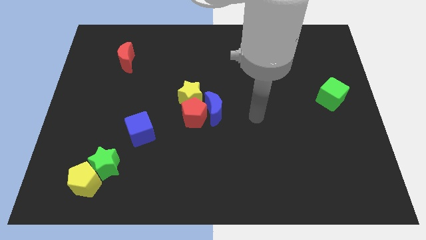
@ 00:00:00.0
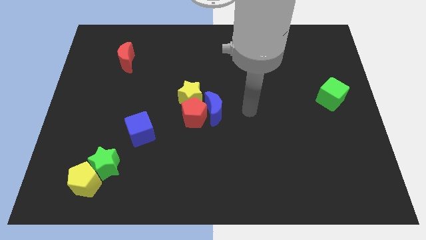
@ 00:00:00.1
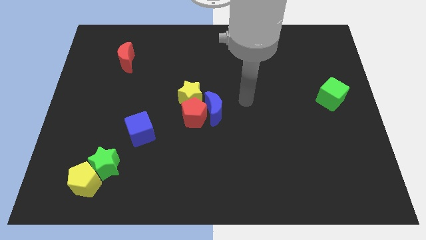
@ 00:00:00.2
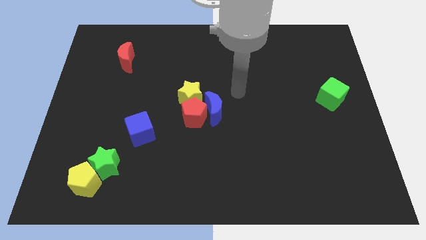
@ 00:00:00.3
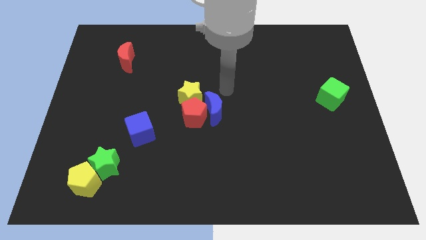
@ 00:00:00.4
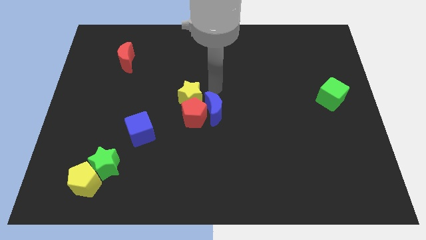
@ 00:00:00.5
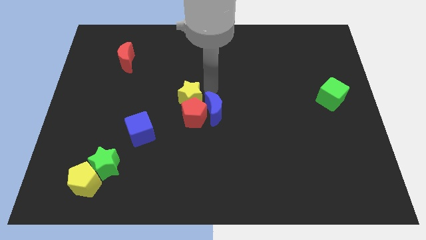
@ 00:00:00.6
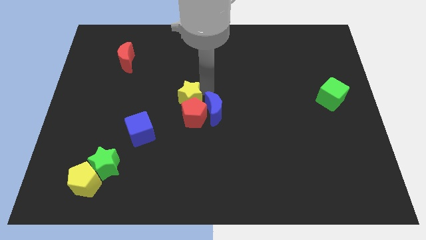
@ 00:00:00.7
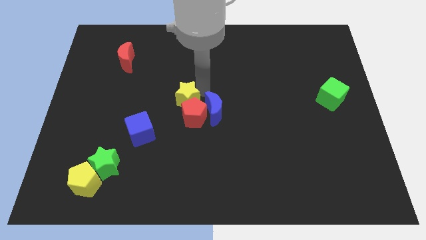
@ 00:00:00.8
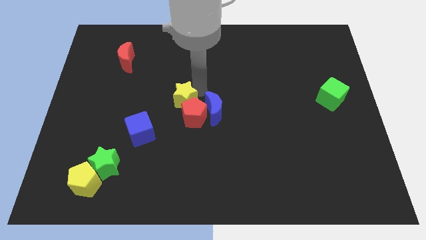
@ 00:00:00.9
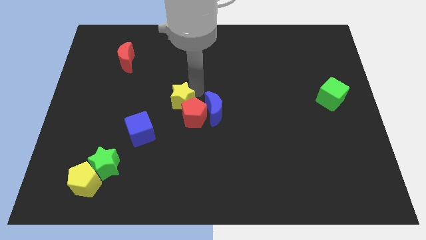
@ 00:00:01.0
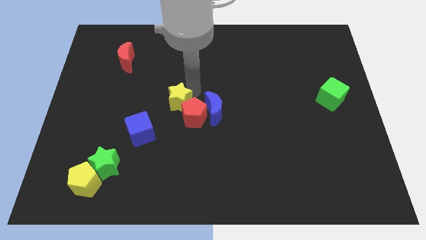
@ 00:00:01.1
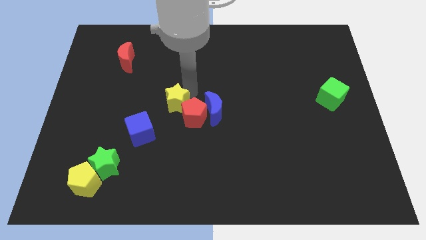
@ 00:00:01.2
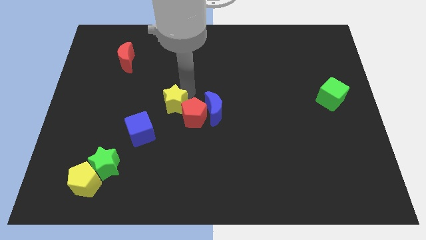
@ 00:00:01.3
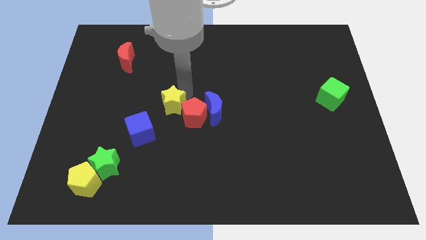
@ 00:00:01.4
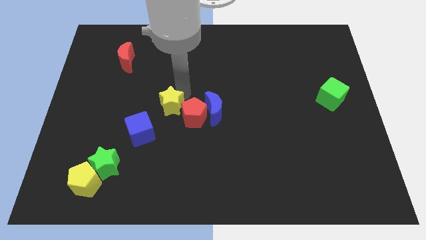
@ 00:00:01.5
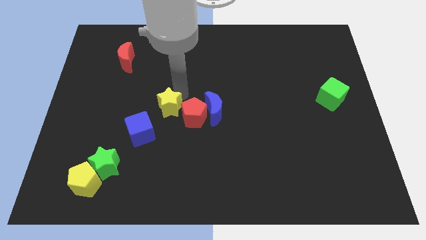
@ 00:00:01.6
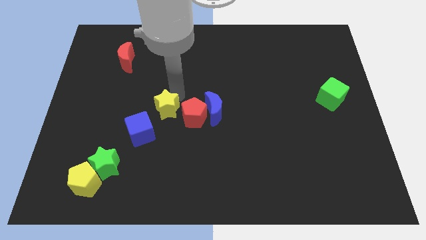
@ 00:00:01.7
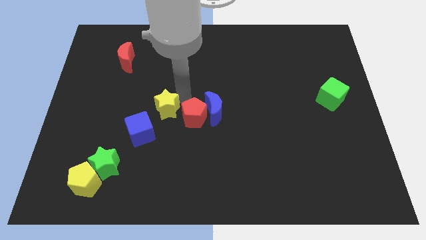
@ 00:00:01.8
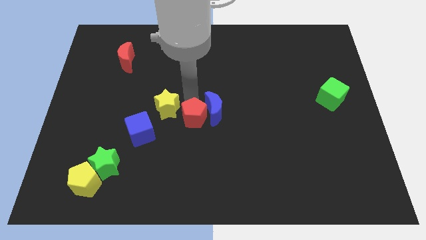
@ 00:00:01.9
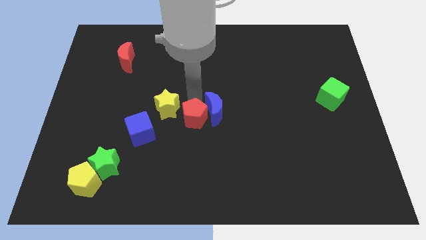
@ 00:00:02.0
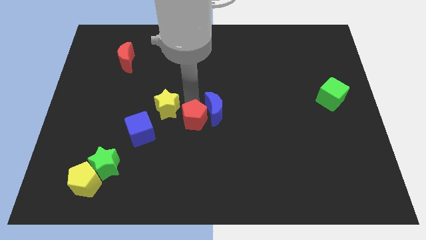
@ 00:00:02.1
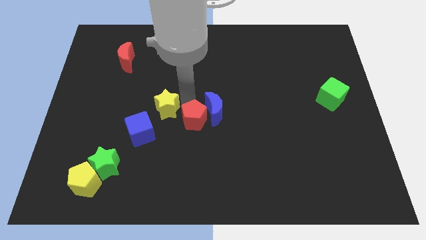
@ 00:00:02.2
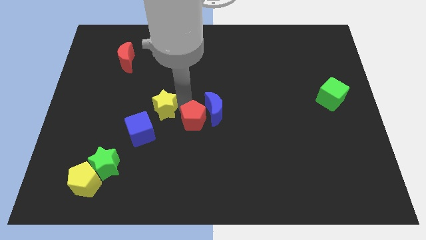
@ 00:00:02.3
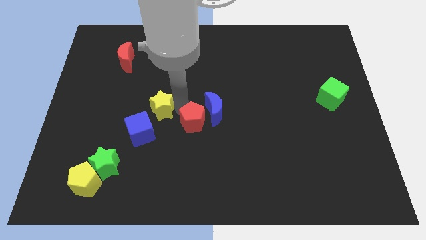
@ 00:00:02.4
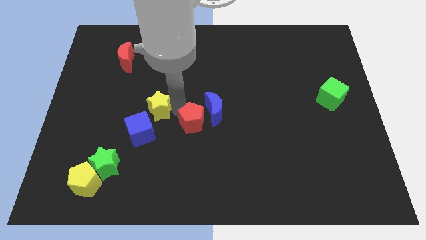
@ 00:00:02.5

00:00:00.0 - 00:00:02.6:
push the yellow star downwards and left a little

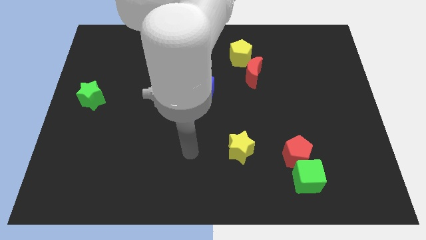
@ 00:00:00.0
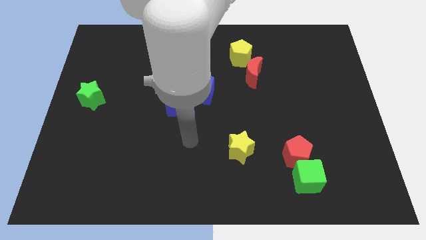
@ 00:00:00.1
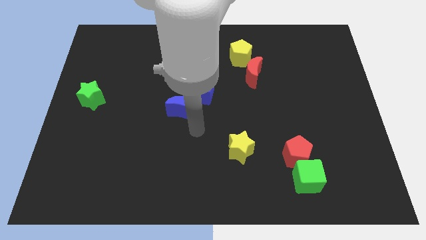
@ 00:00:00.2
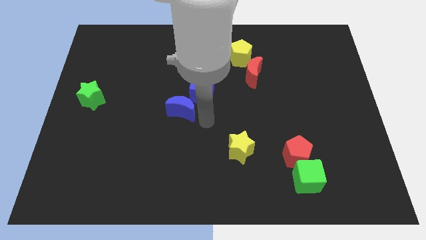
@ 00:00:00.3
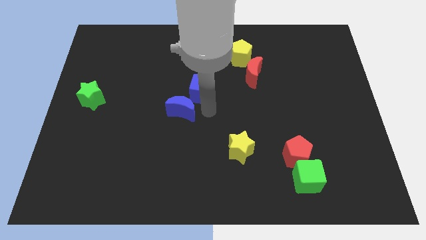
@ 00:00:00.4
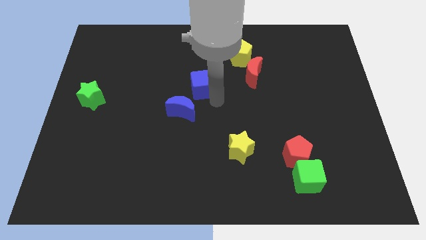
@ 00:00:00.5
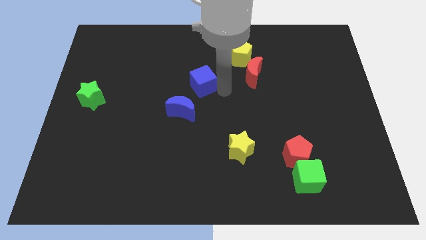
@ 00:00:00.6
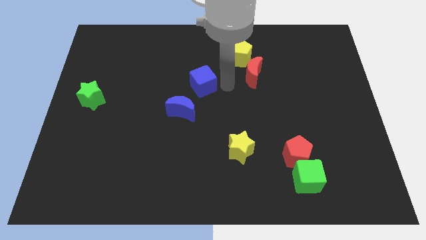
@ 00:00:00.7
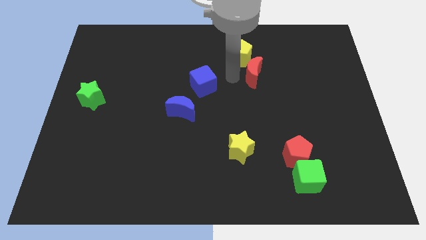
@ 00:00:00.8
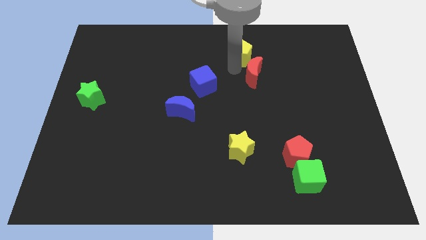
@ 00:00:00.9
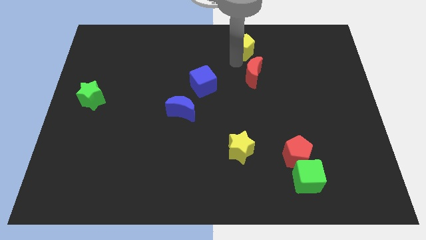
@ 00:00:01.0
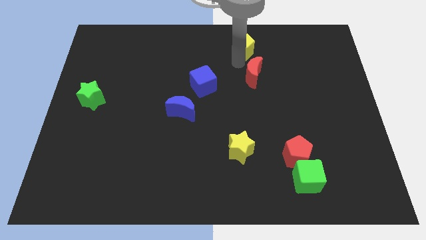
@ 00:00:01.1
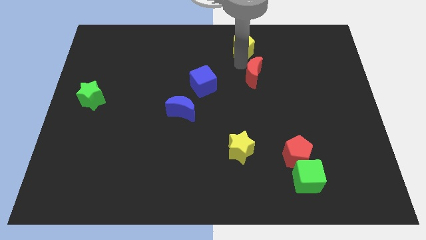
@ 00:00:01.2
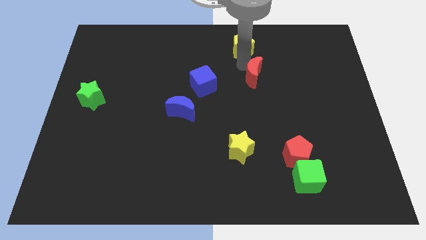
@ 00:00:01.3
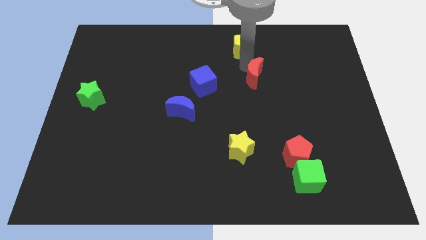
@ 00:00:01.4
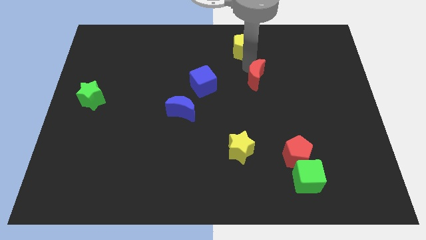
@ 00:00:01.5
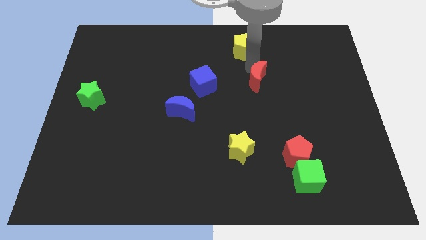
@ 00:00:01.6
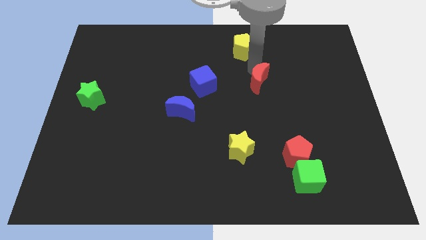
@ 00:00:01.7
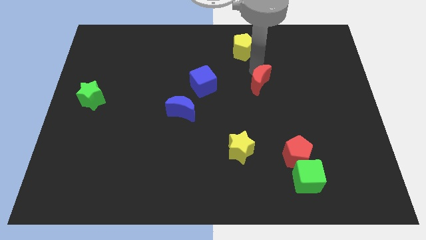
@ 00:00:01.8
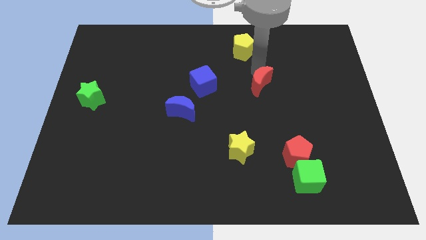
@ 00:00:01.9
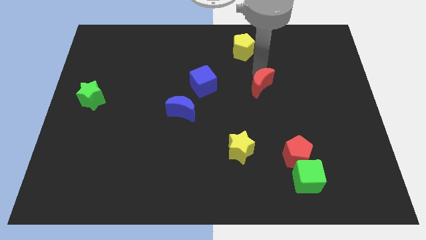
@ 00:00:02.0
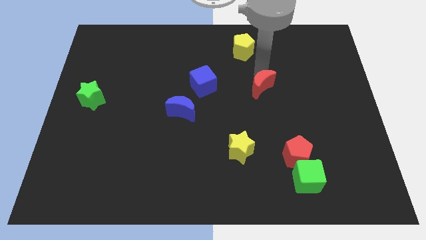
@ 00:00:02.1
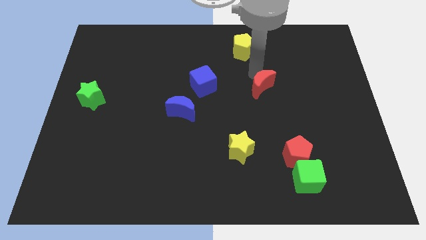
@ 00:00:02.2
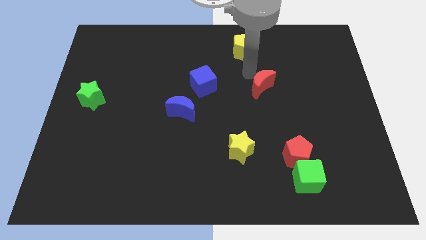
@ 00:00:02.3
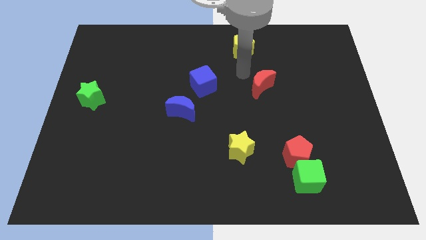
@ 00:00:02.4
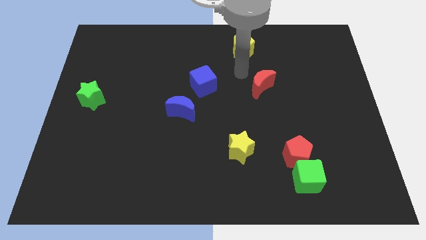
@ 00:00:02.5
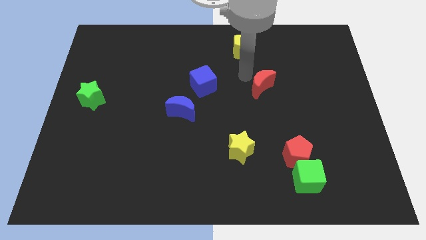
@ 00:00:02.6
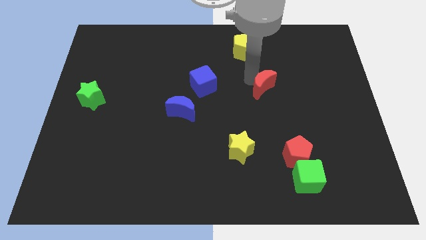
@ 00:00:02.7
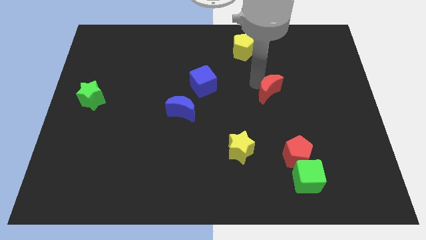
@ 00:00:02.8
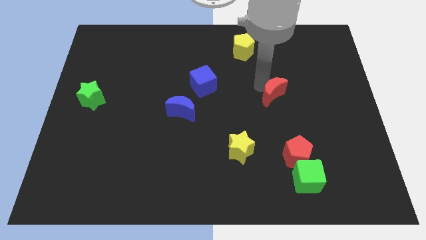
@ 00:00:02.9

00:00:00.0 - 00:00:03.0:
push the red moon a little bit down and right

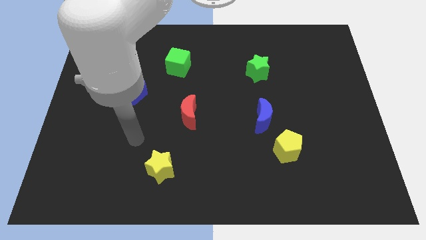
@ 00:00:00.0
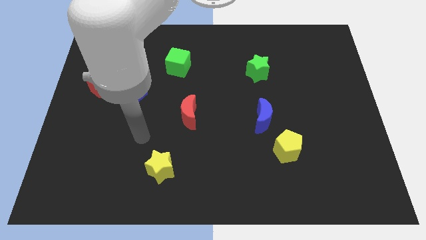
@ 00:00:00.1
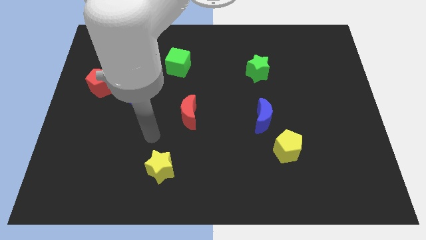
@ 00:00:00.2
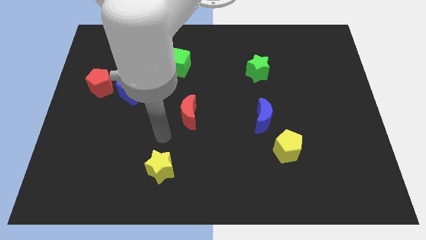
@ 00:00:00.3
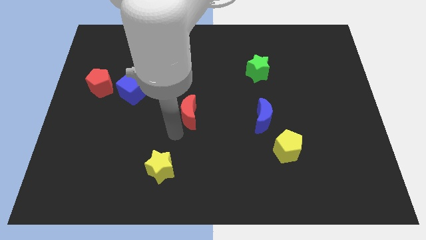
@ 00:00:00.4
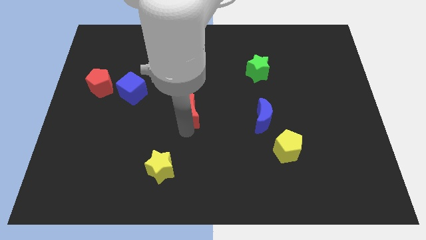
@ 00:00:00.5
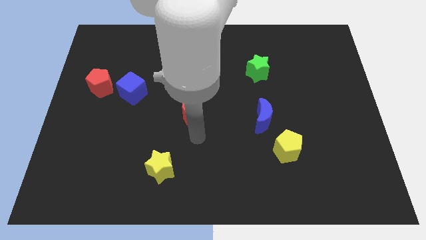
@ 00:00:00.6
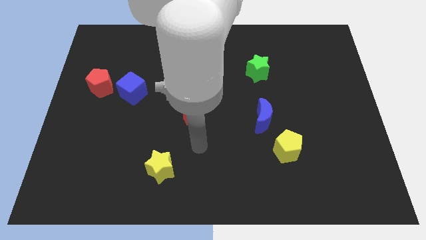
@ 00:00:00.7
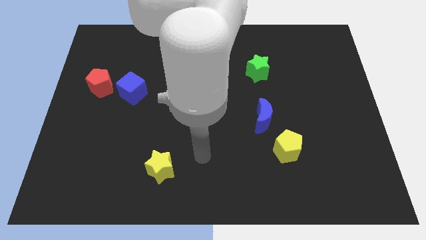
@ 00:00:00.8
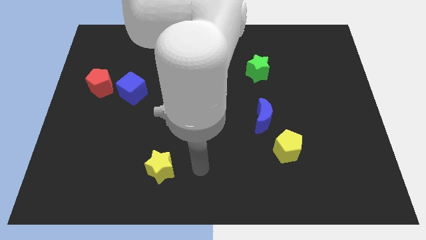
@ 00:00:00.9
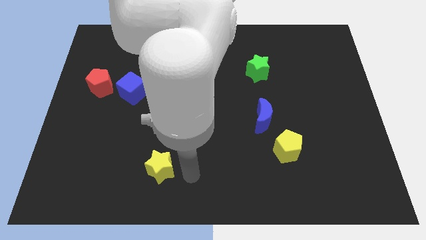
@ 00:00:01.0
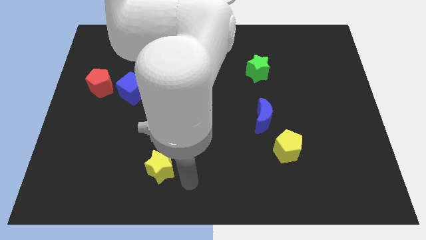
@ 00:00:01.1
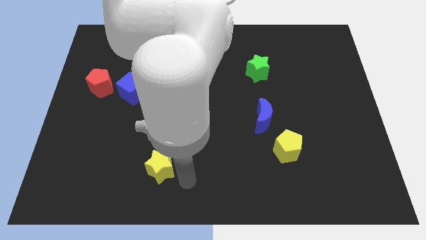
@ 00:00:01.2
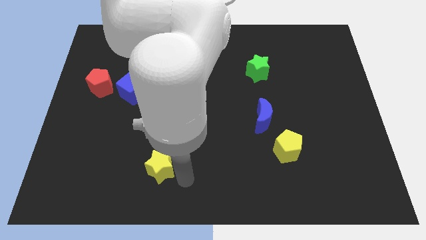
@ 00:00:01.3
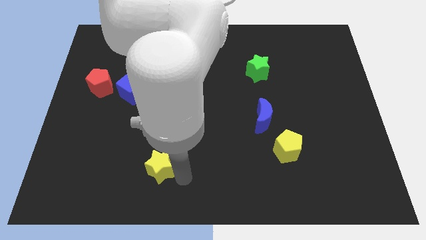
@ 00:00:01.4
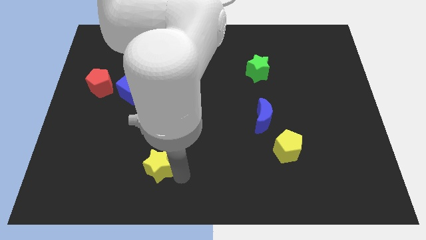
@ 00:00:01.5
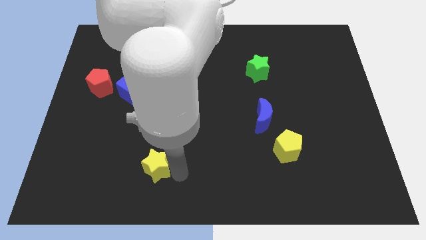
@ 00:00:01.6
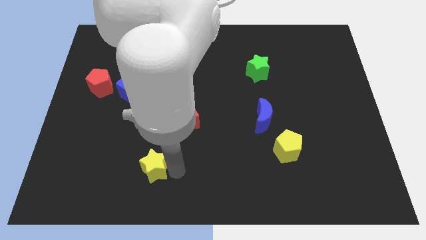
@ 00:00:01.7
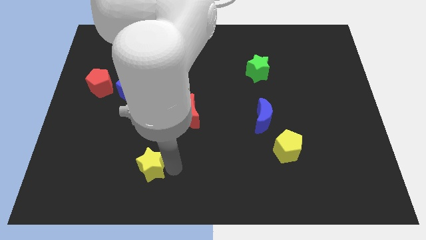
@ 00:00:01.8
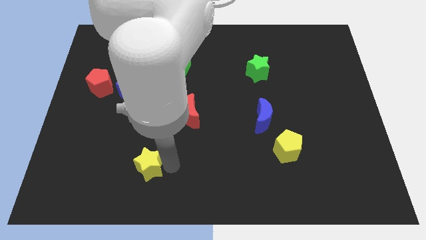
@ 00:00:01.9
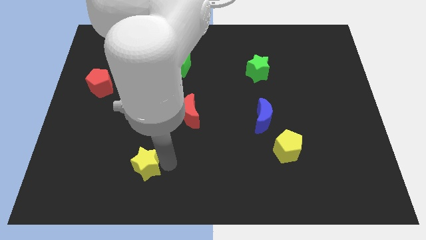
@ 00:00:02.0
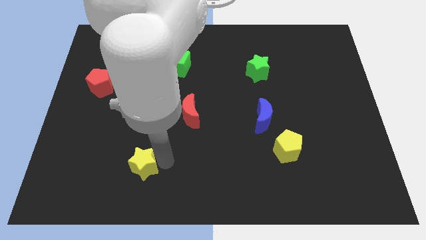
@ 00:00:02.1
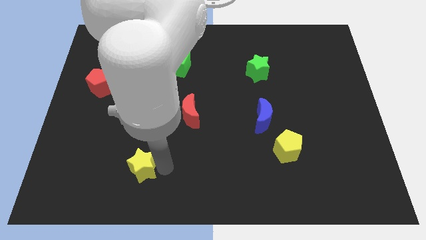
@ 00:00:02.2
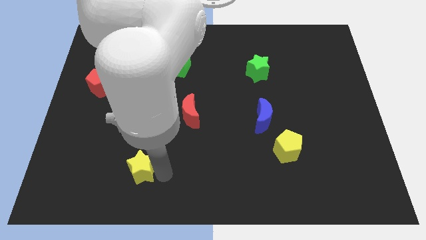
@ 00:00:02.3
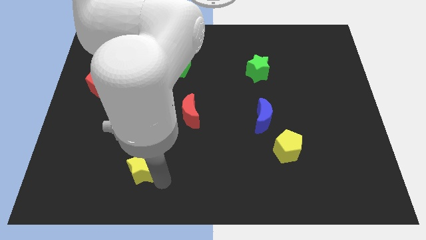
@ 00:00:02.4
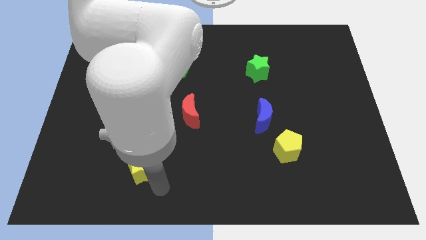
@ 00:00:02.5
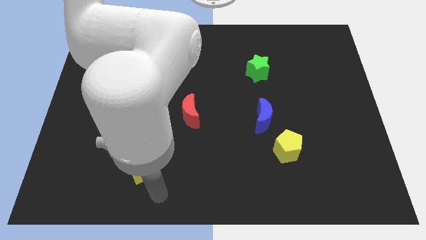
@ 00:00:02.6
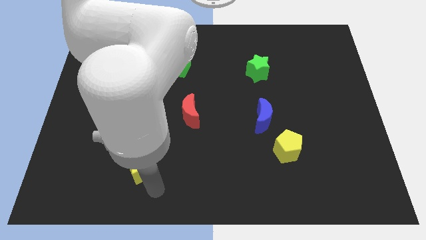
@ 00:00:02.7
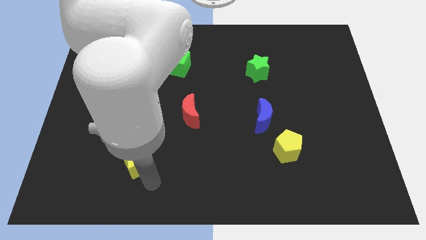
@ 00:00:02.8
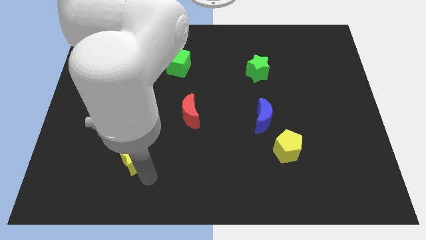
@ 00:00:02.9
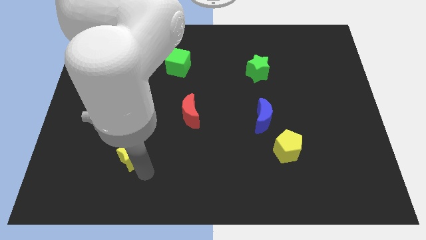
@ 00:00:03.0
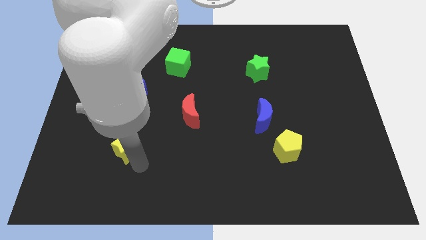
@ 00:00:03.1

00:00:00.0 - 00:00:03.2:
move the yellow star up and to the left slightly
